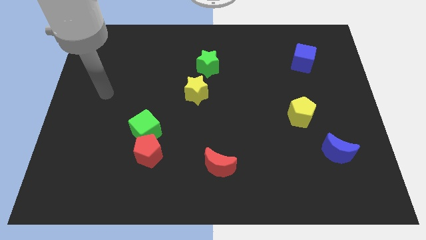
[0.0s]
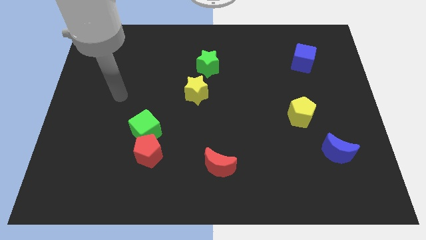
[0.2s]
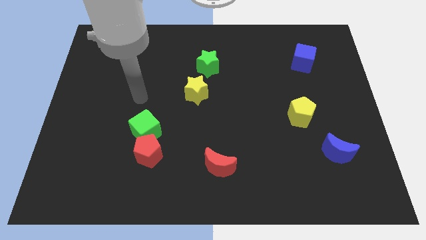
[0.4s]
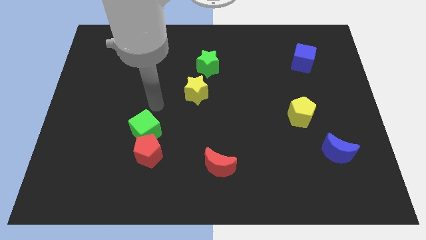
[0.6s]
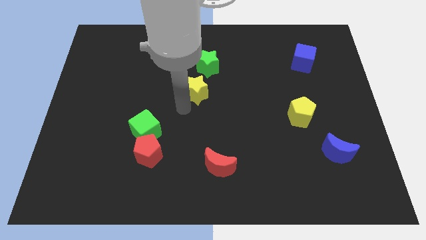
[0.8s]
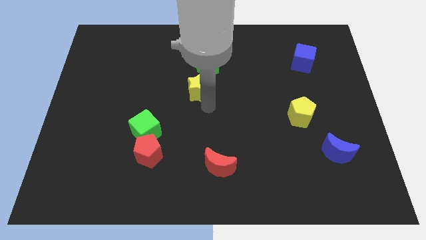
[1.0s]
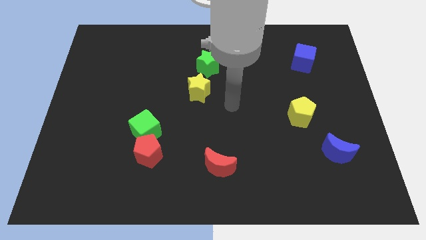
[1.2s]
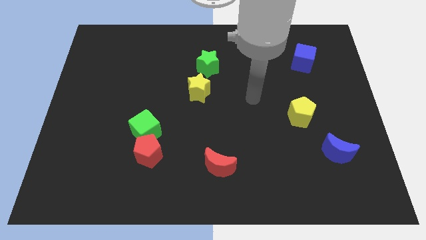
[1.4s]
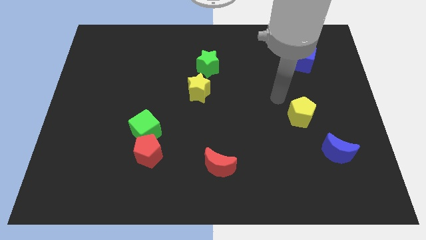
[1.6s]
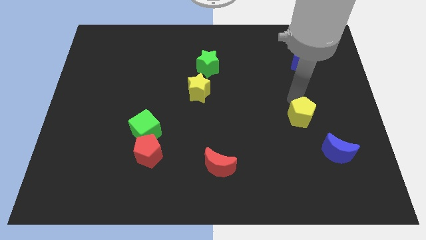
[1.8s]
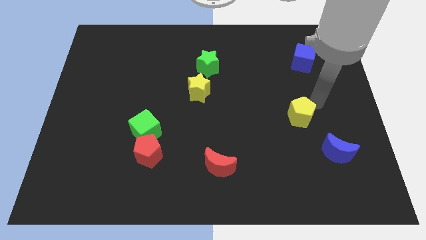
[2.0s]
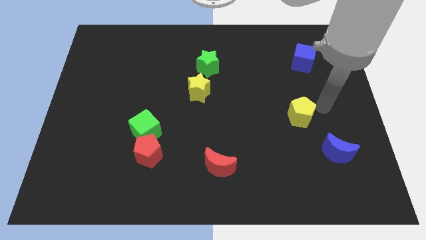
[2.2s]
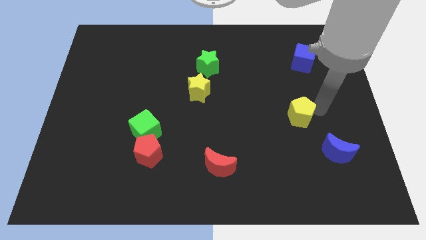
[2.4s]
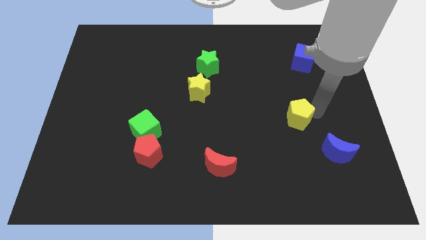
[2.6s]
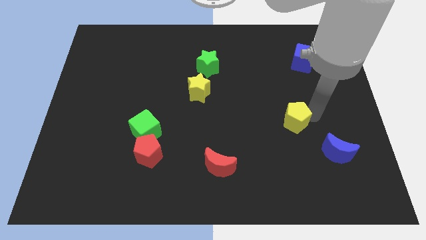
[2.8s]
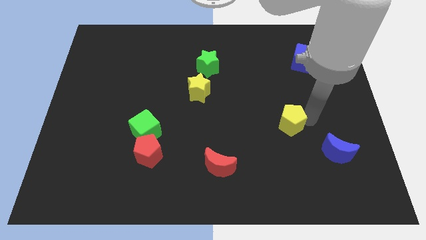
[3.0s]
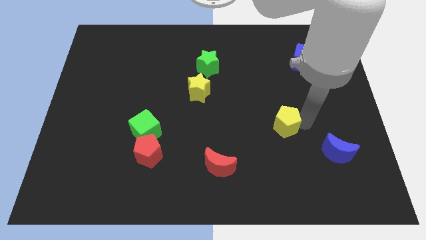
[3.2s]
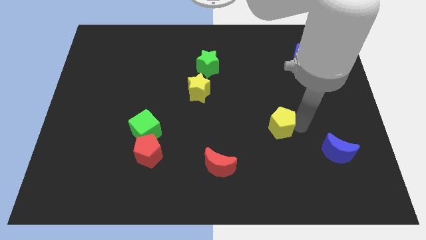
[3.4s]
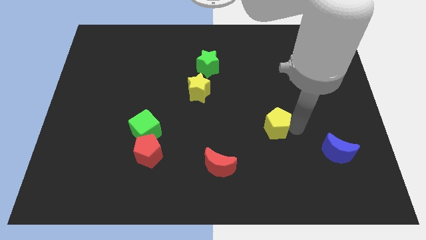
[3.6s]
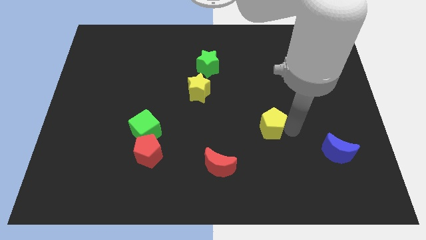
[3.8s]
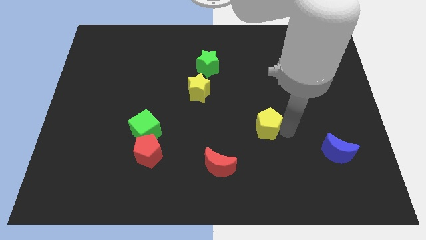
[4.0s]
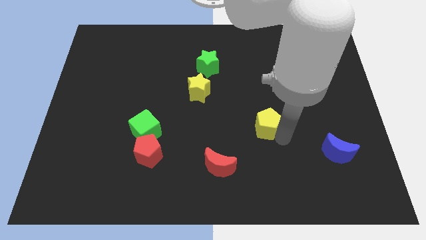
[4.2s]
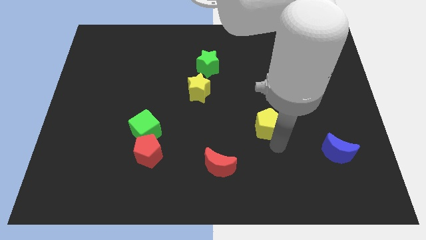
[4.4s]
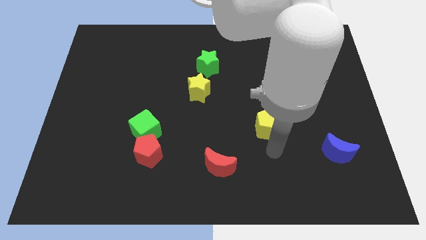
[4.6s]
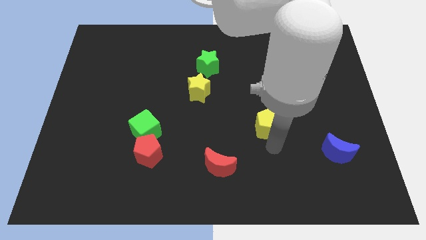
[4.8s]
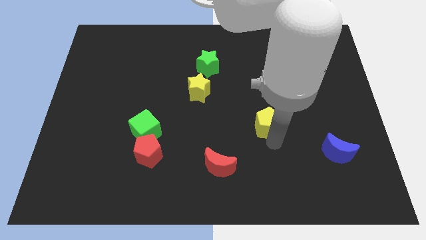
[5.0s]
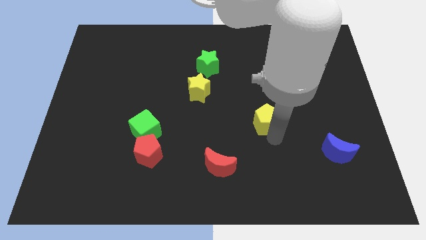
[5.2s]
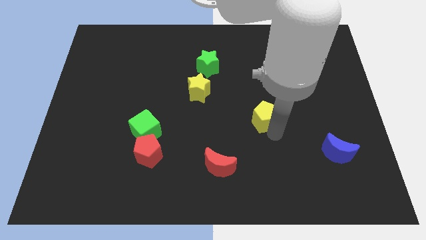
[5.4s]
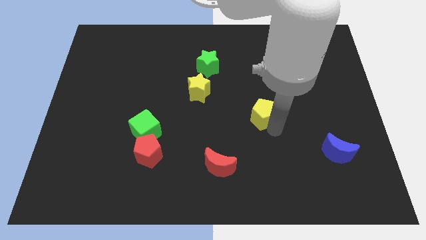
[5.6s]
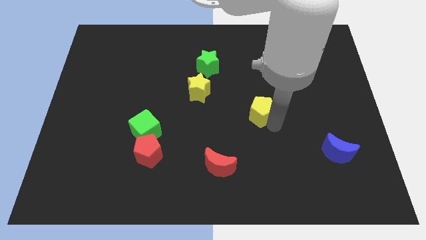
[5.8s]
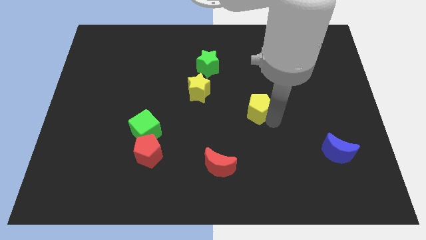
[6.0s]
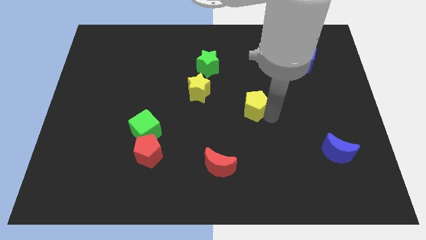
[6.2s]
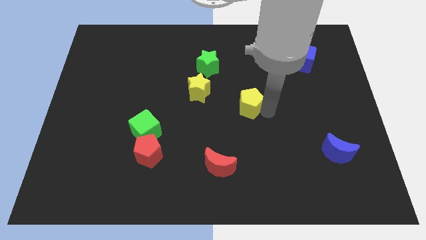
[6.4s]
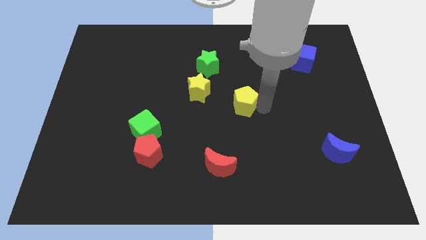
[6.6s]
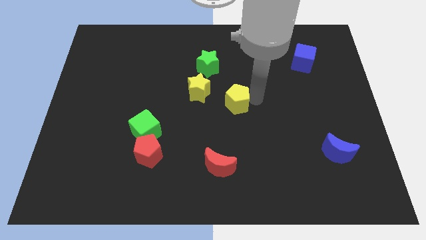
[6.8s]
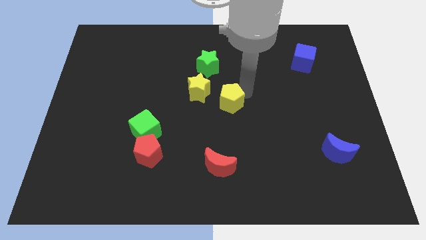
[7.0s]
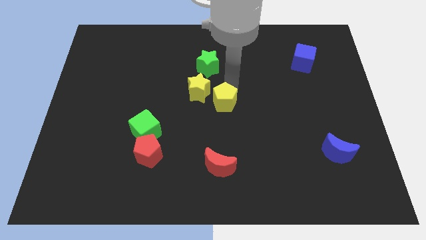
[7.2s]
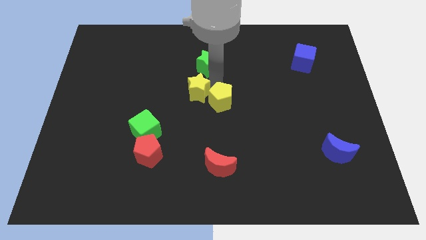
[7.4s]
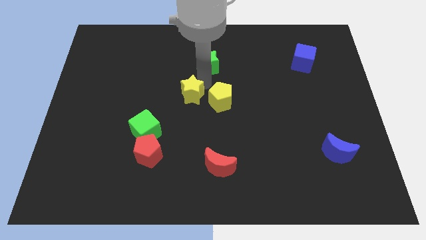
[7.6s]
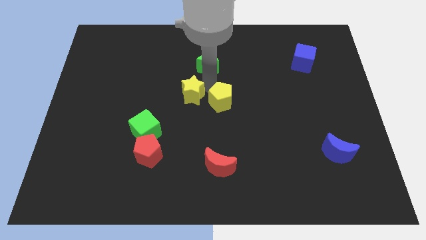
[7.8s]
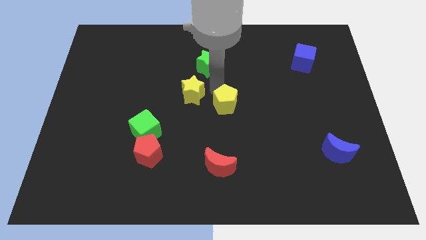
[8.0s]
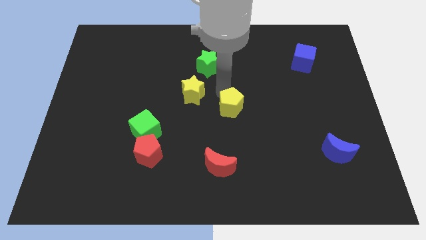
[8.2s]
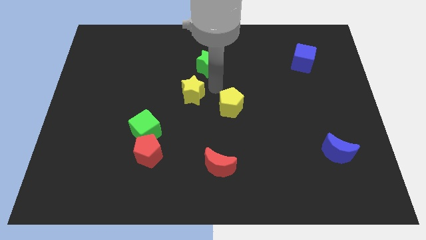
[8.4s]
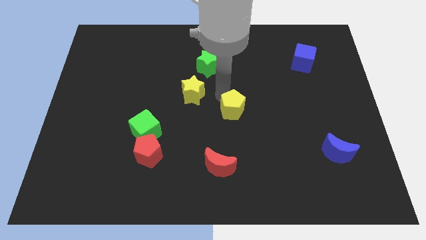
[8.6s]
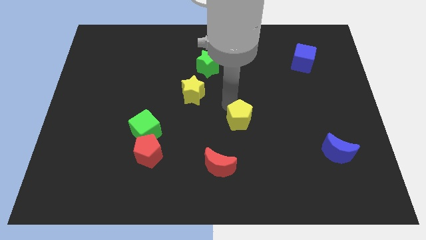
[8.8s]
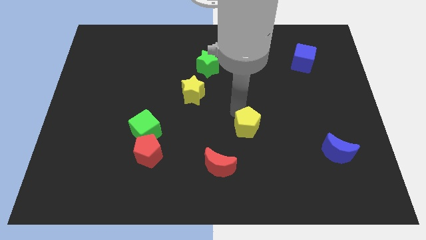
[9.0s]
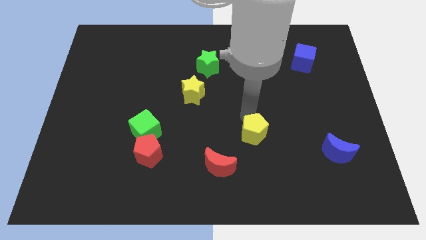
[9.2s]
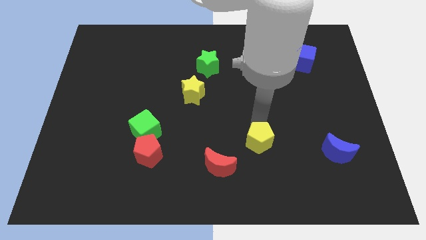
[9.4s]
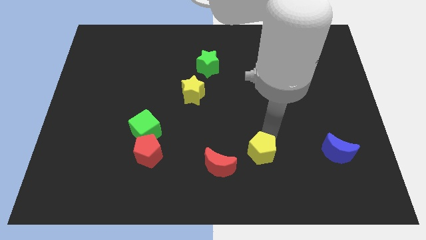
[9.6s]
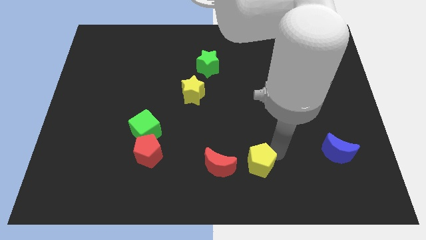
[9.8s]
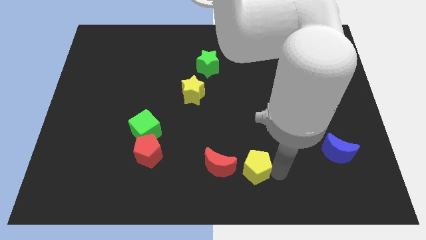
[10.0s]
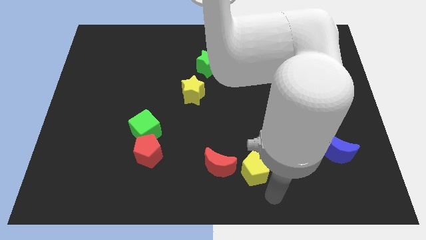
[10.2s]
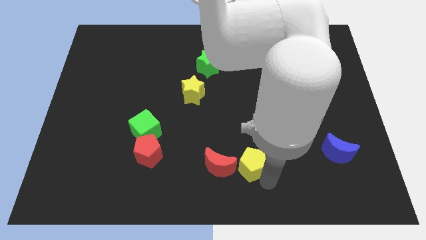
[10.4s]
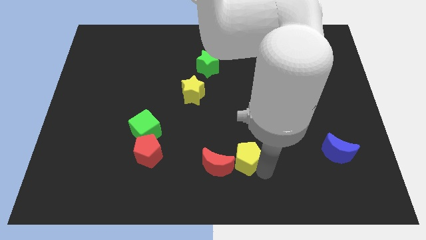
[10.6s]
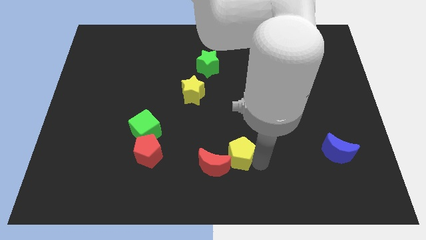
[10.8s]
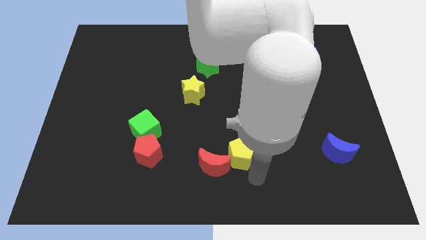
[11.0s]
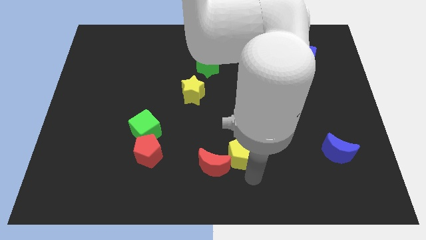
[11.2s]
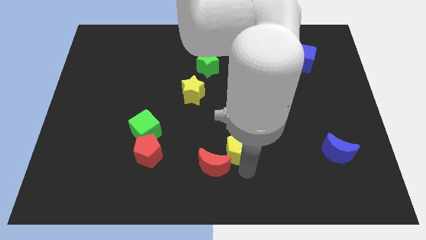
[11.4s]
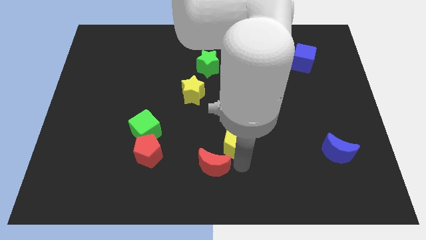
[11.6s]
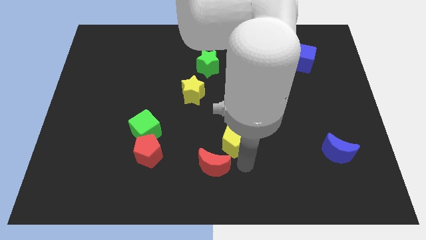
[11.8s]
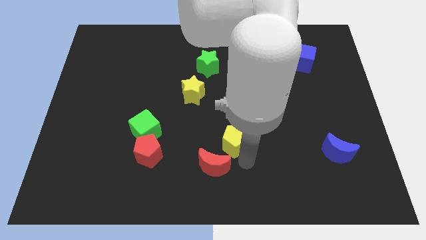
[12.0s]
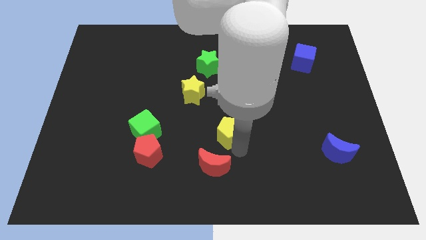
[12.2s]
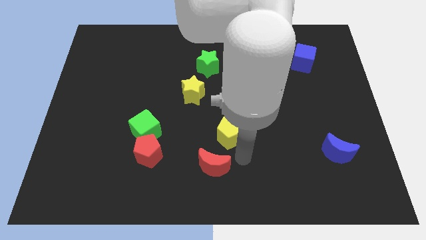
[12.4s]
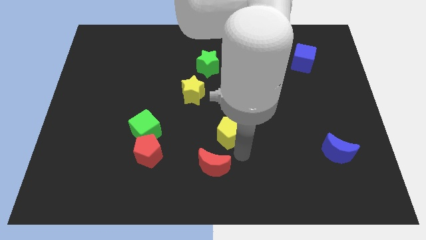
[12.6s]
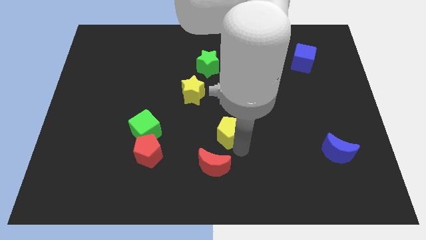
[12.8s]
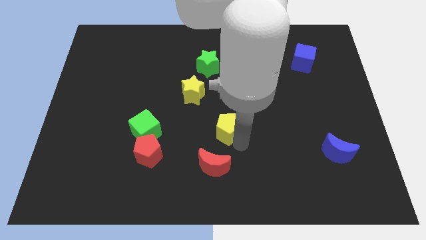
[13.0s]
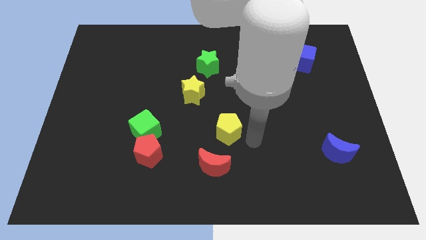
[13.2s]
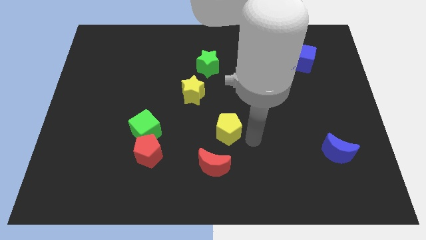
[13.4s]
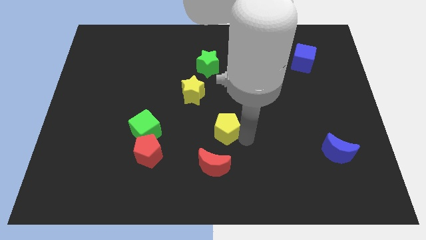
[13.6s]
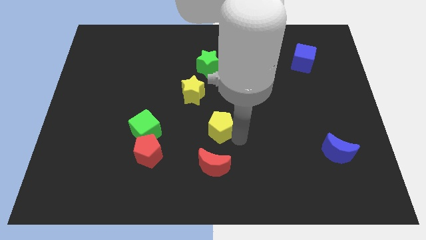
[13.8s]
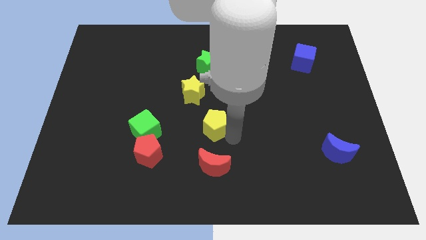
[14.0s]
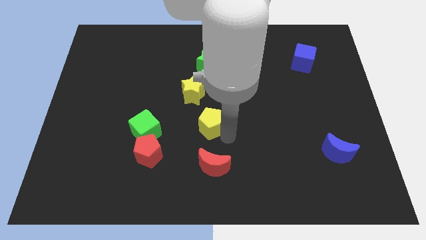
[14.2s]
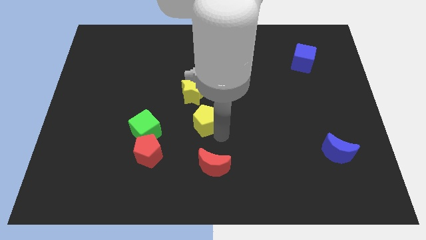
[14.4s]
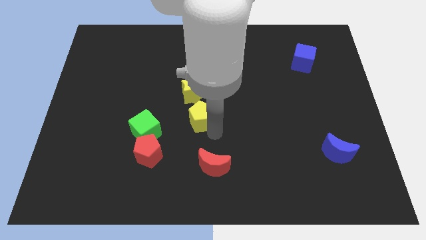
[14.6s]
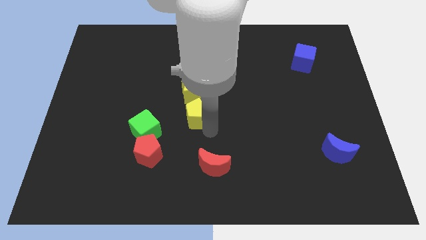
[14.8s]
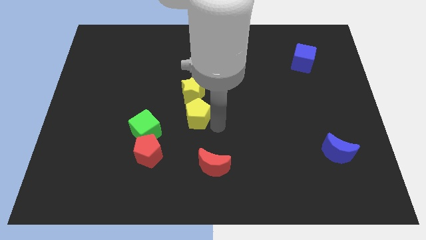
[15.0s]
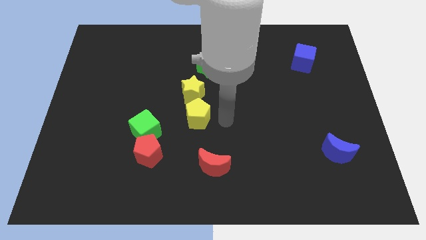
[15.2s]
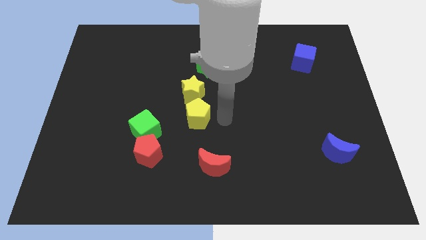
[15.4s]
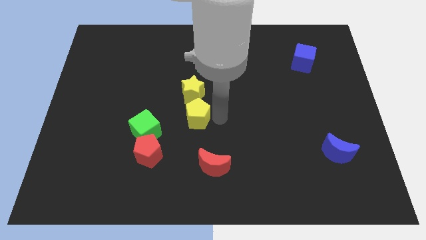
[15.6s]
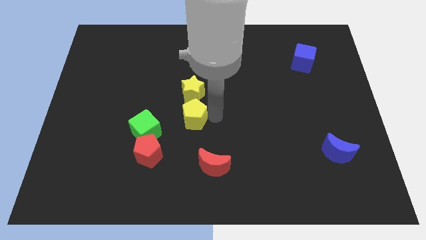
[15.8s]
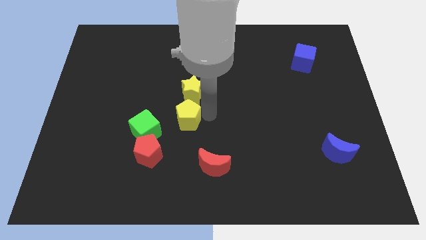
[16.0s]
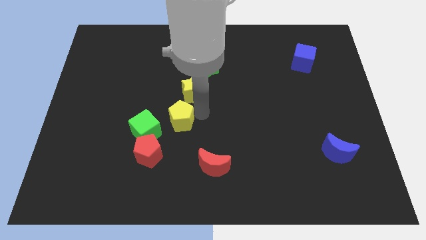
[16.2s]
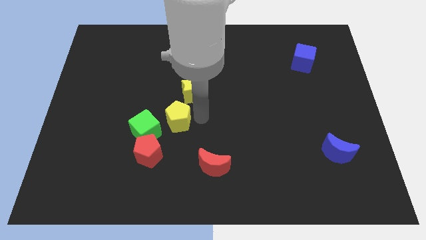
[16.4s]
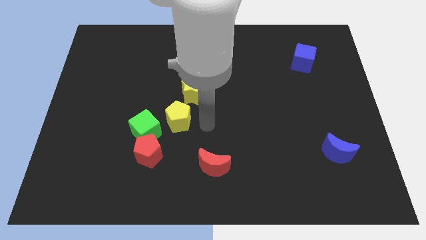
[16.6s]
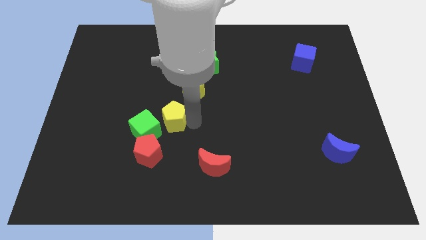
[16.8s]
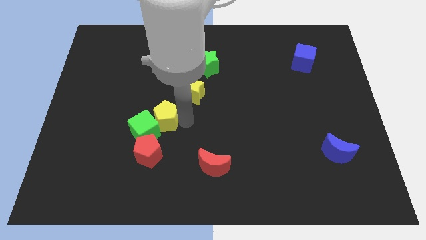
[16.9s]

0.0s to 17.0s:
put the yellow pentagon to the top of the red pentagon
